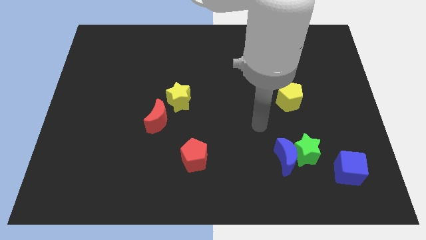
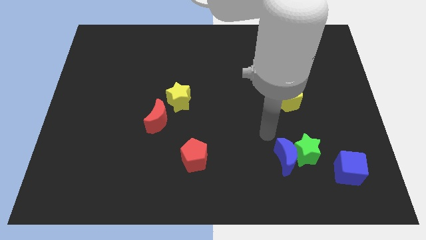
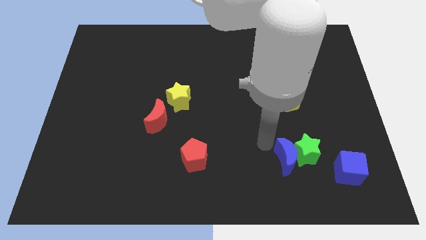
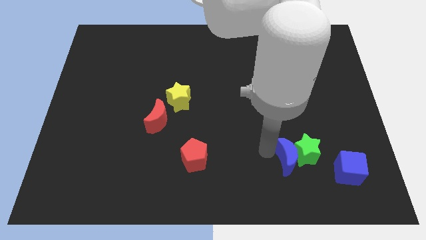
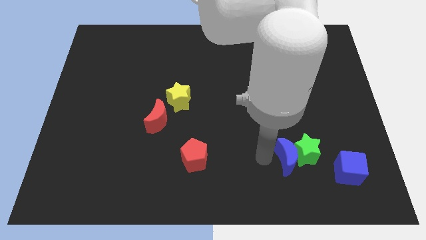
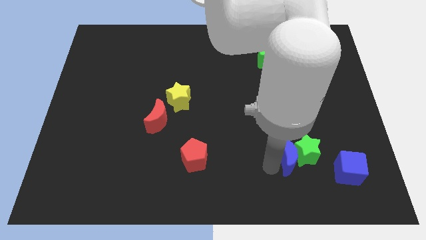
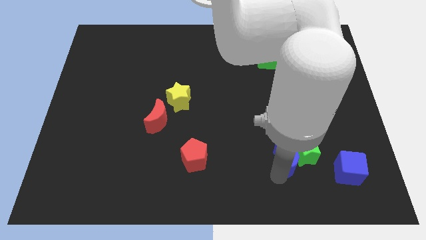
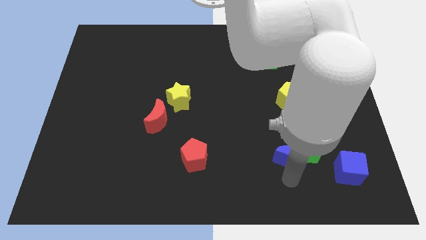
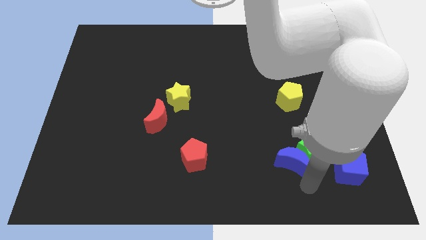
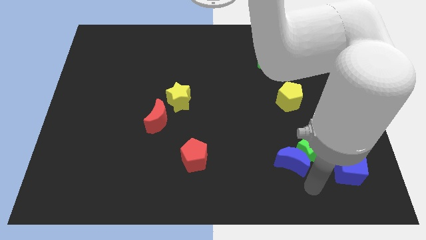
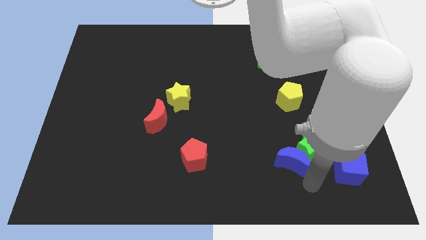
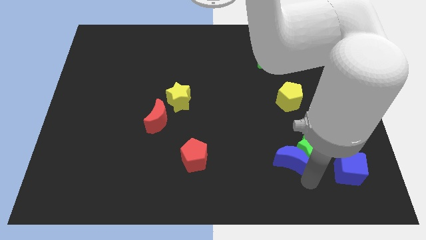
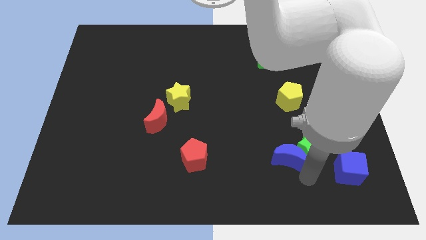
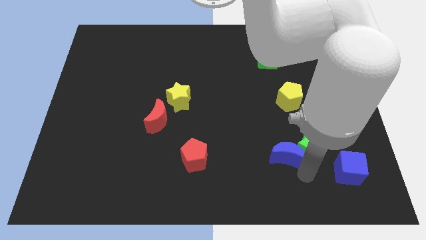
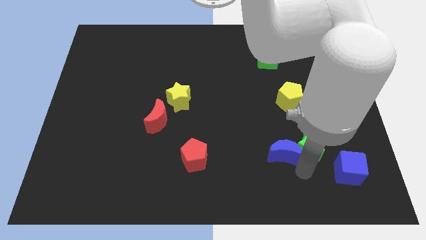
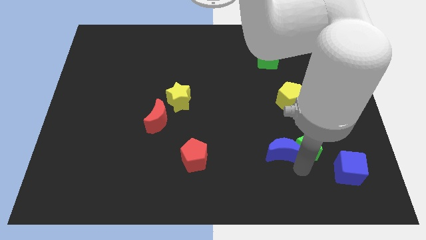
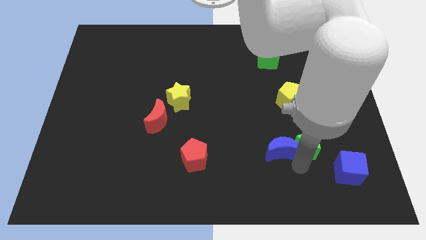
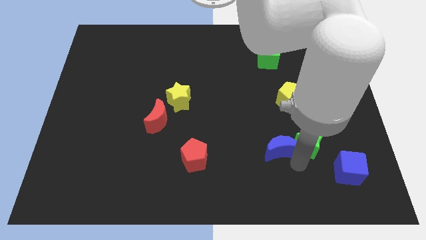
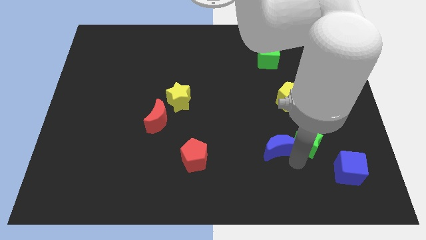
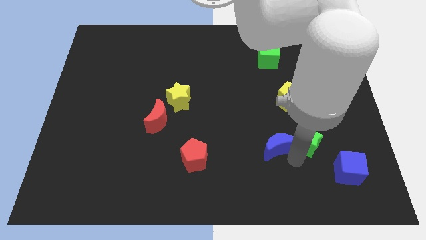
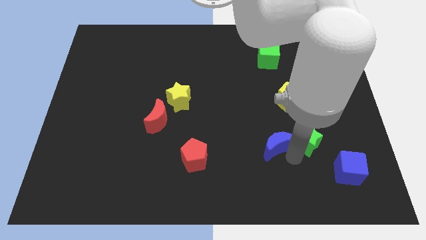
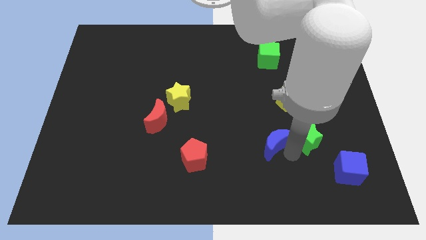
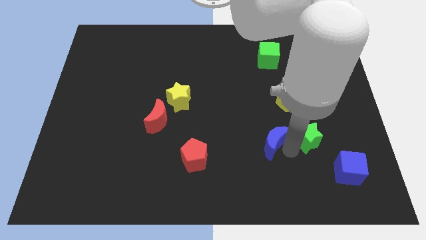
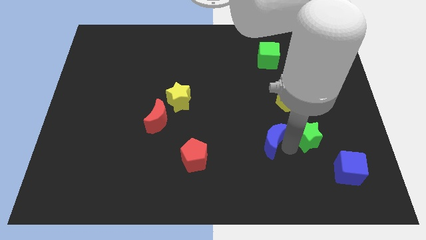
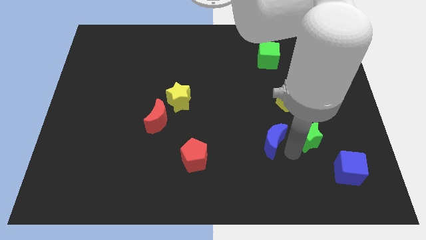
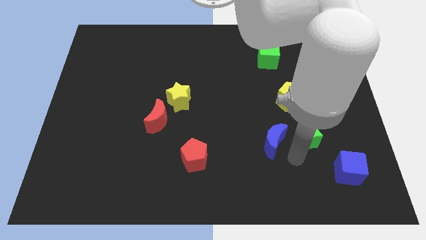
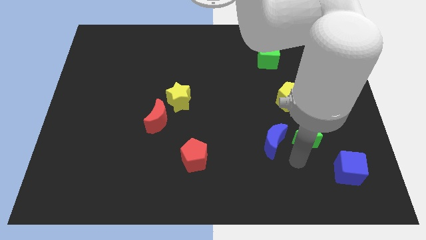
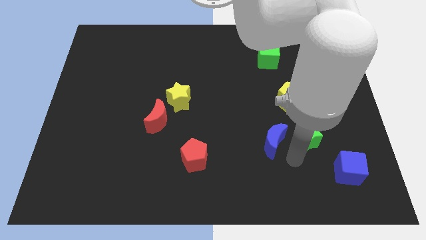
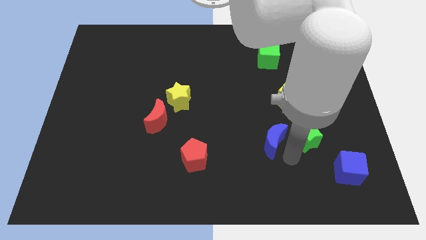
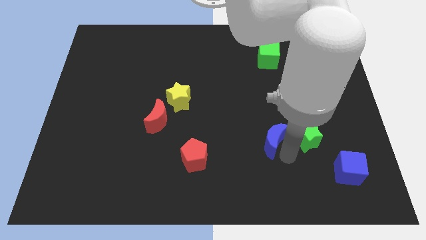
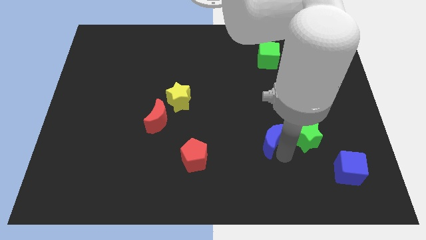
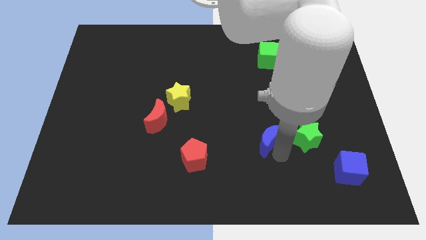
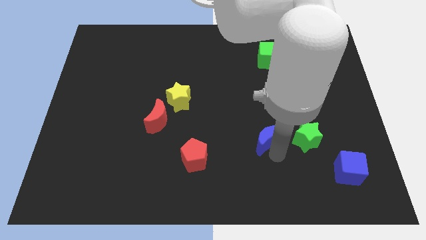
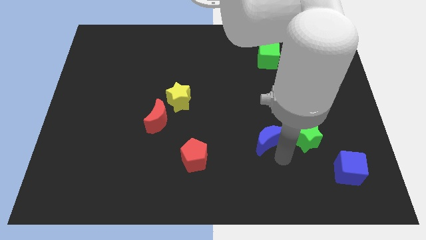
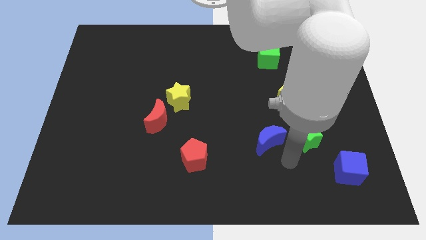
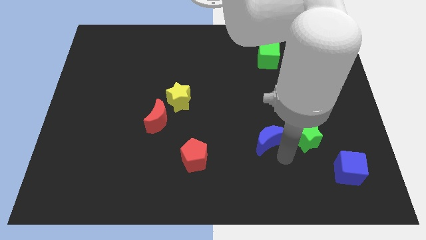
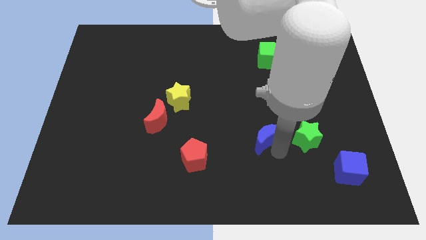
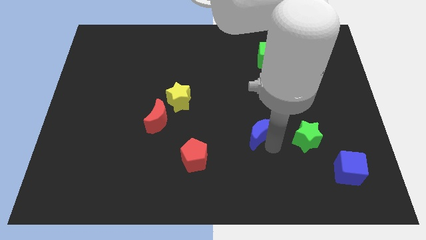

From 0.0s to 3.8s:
slide the blue moon a bit diagonally up and to the left

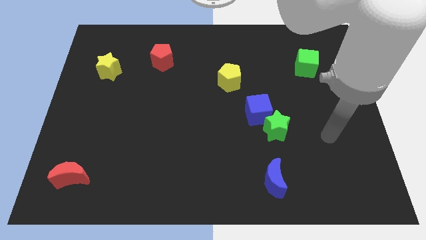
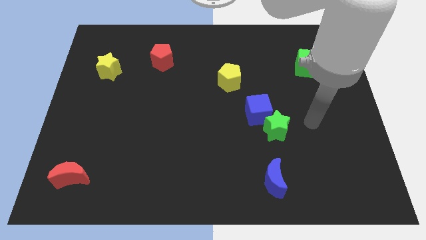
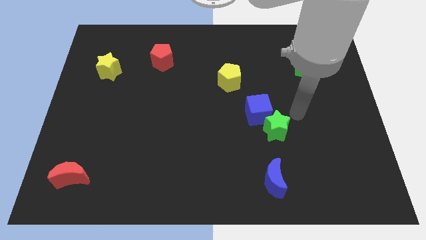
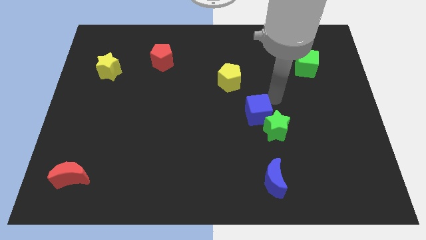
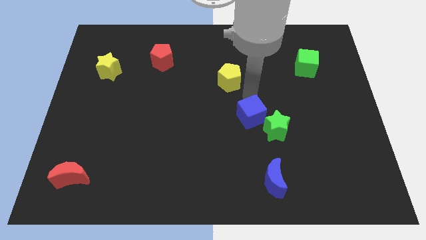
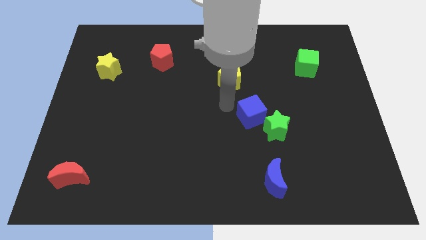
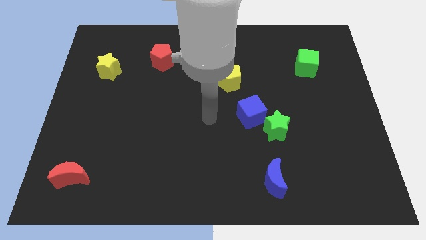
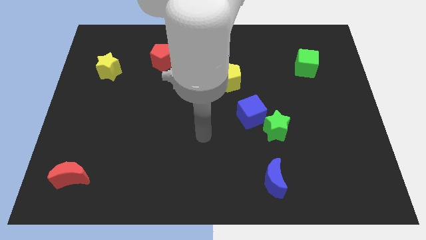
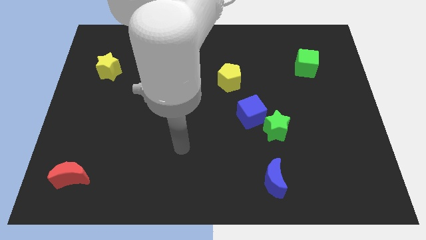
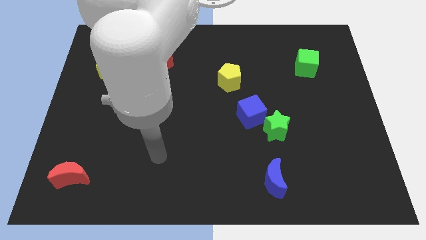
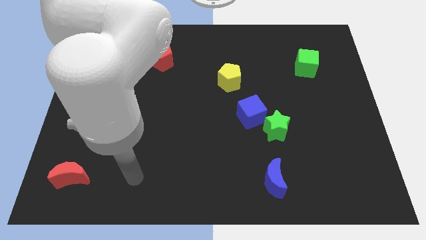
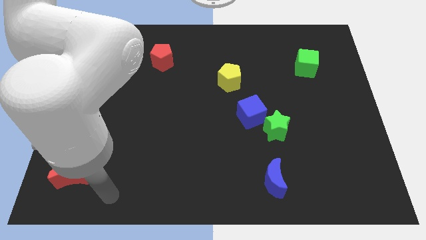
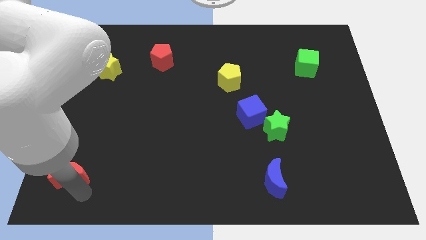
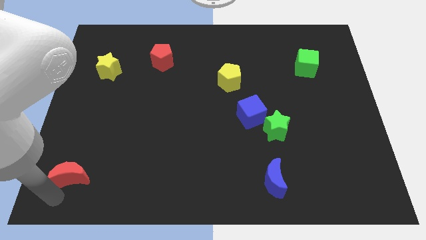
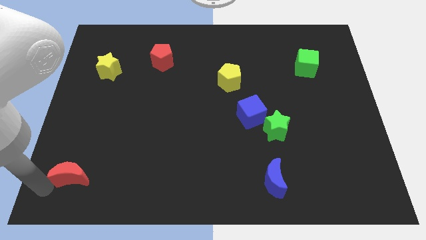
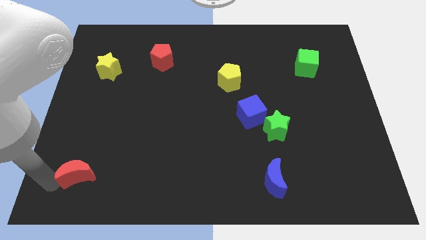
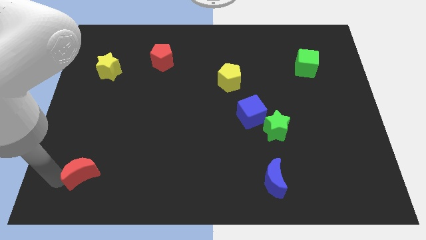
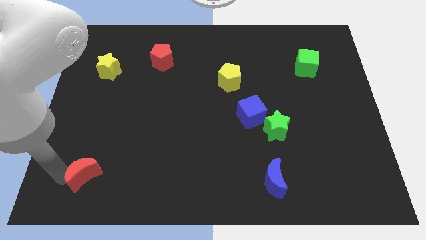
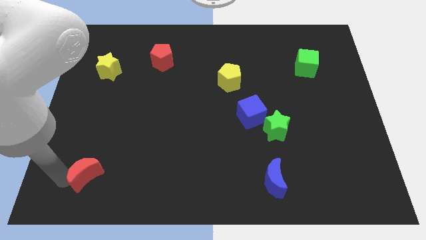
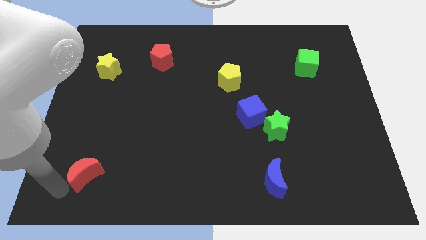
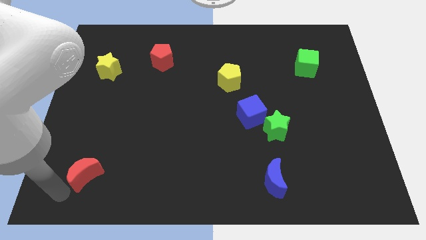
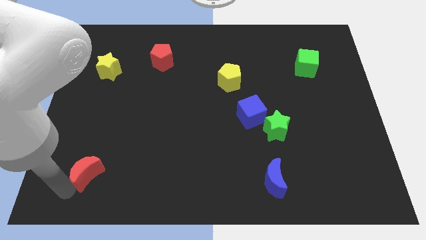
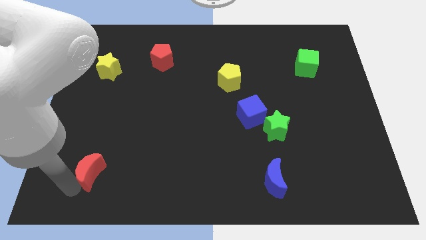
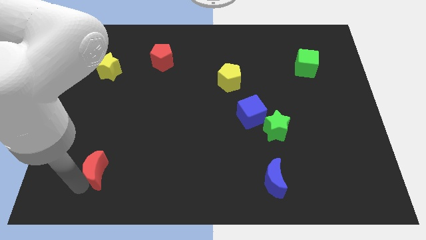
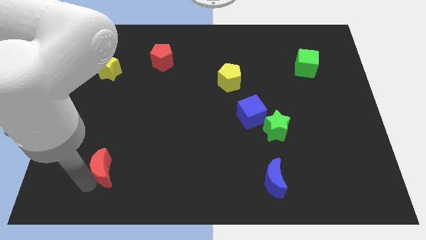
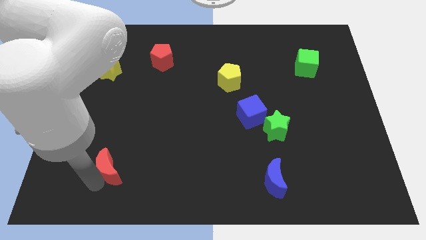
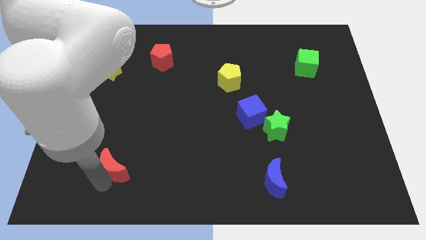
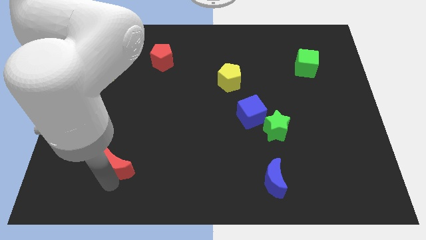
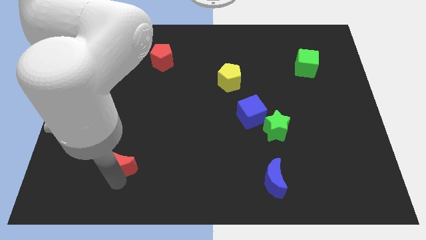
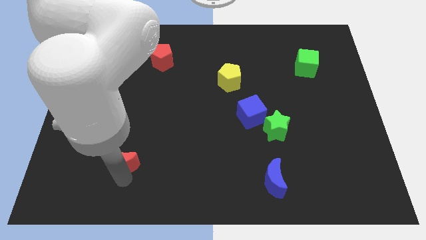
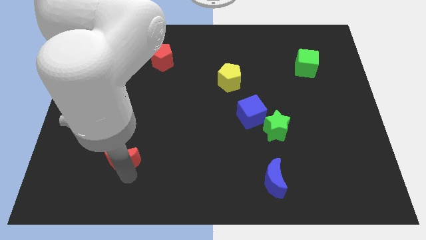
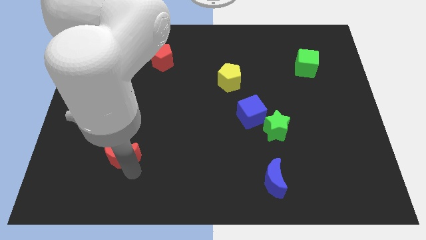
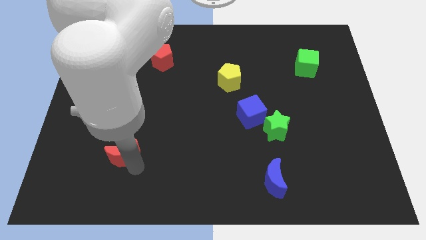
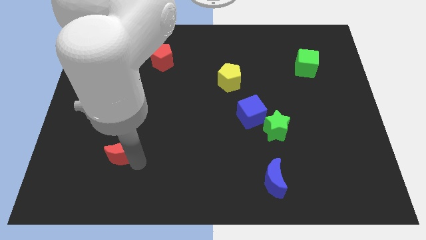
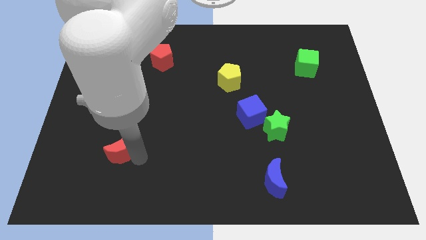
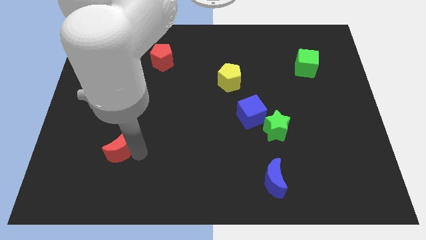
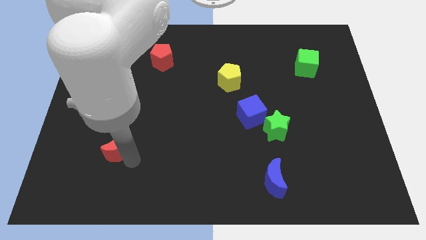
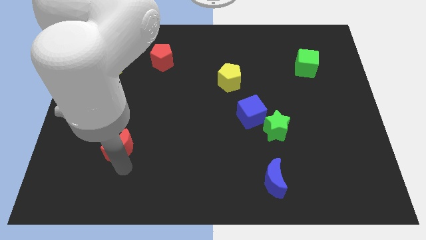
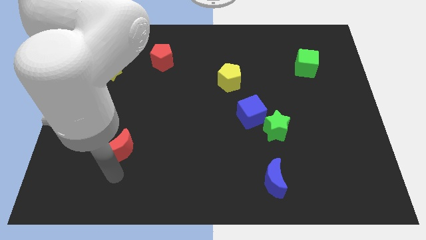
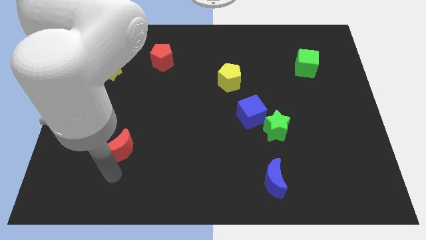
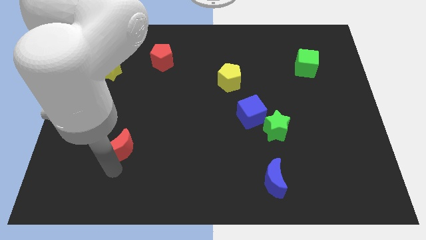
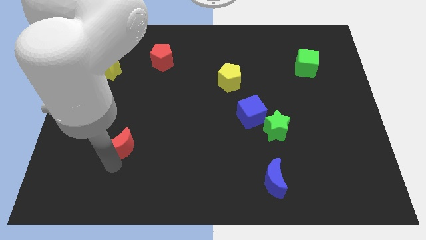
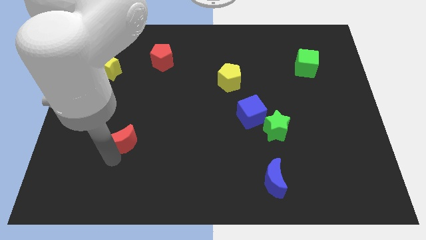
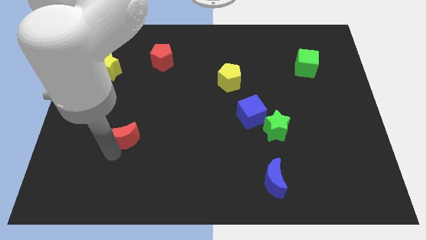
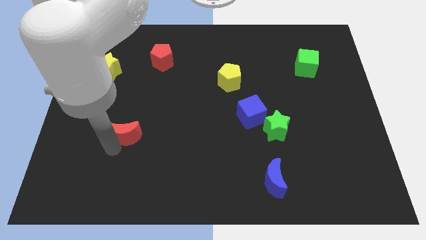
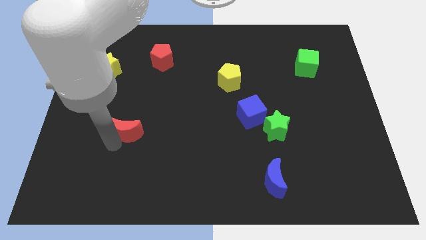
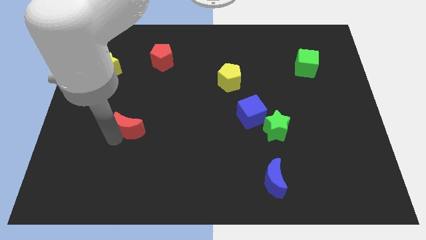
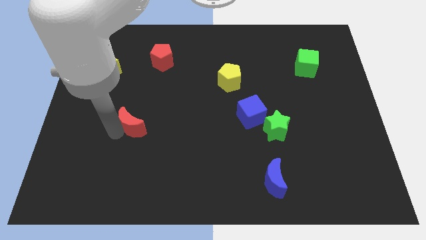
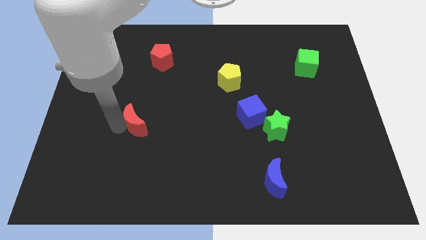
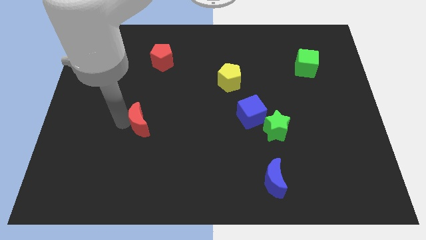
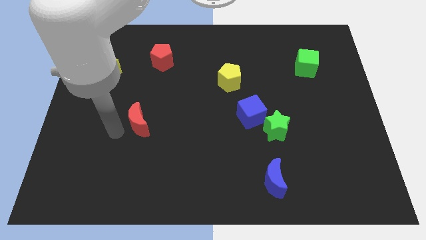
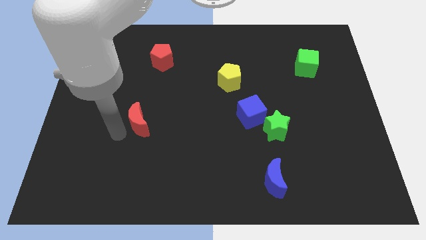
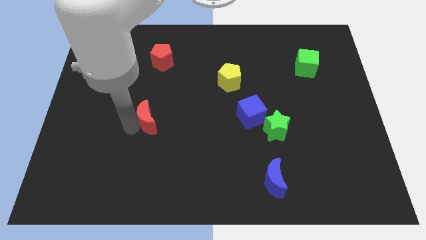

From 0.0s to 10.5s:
move the red moon upwards and to the right diagonally
